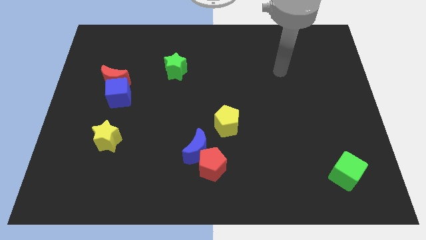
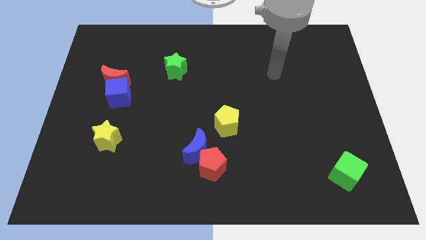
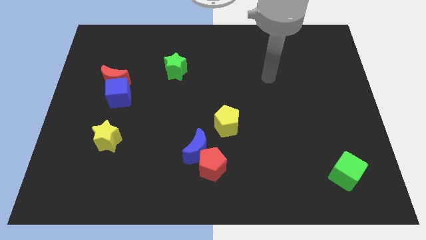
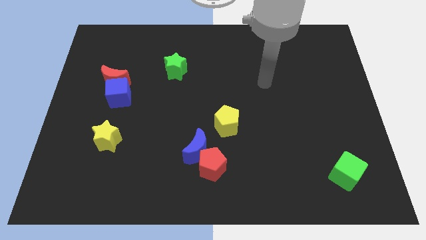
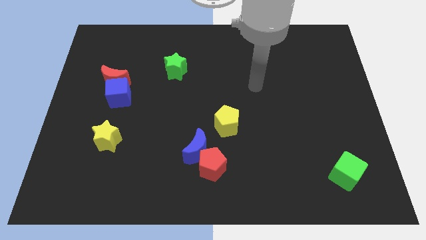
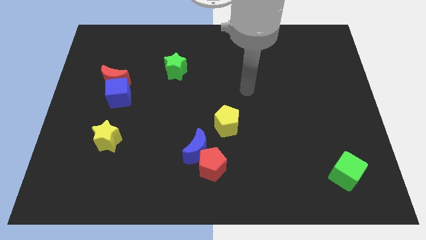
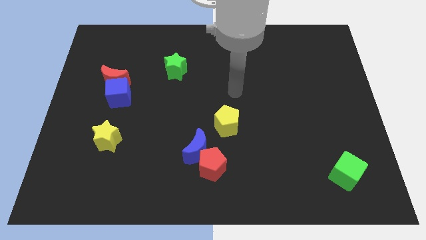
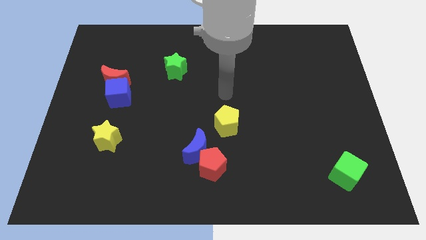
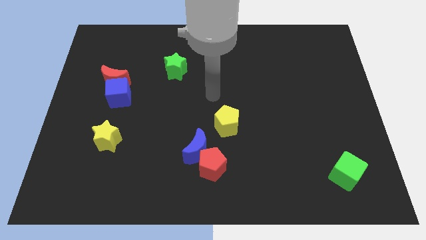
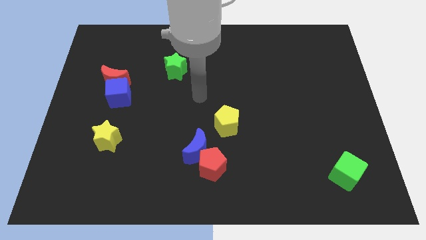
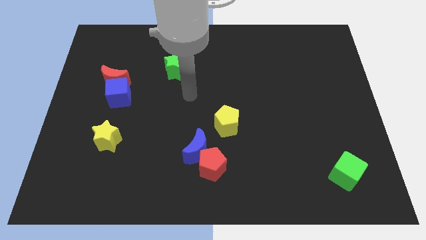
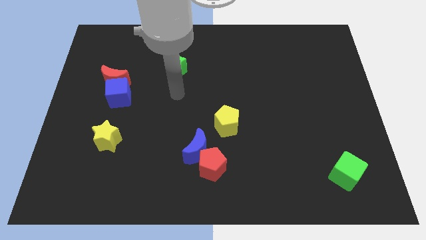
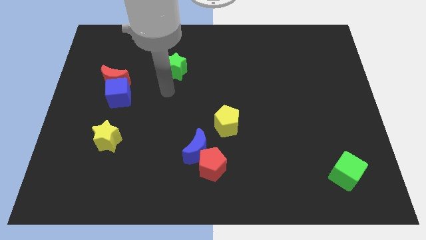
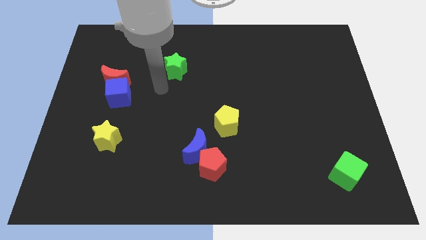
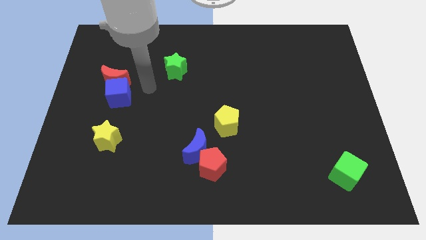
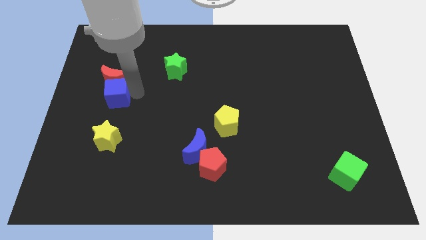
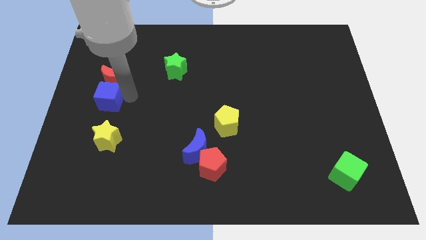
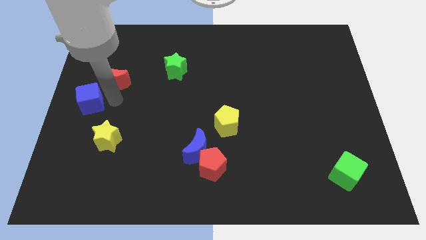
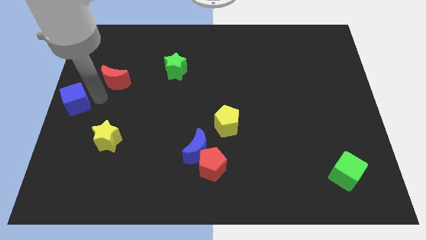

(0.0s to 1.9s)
separate the red moon from the blue cube

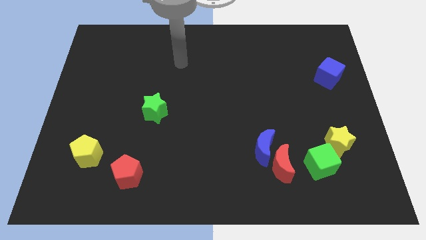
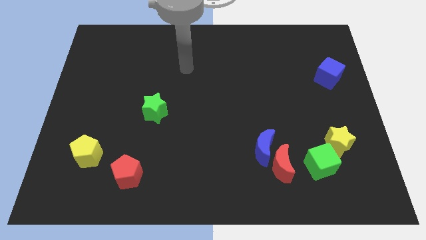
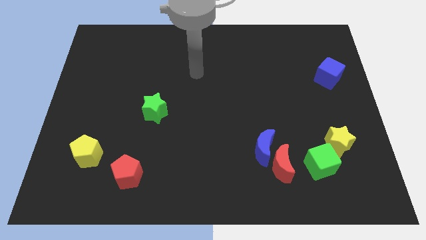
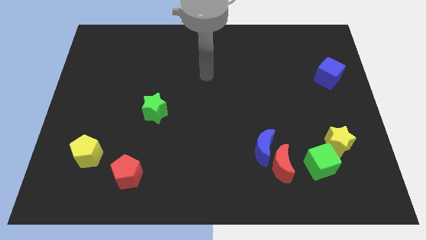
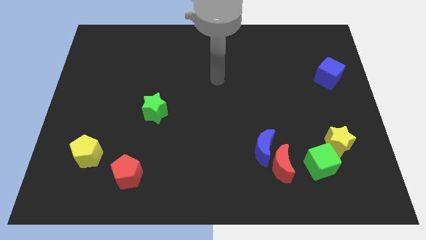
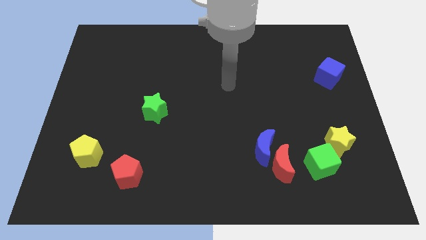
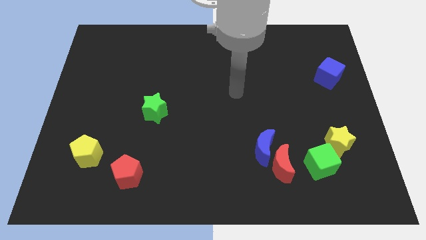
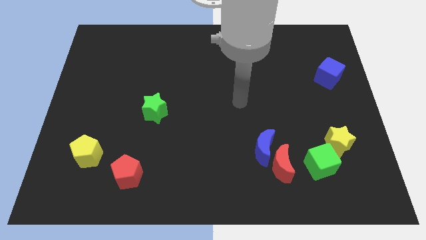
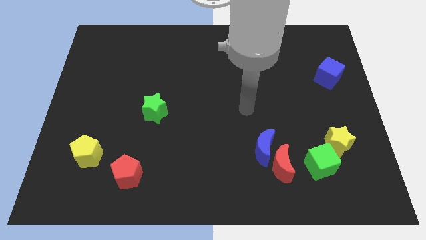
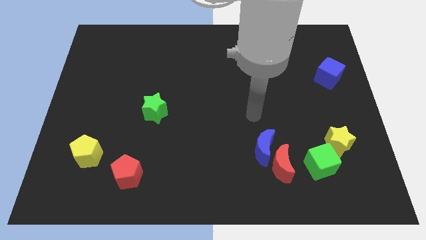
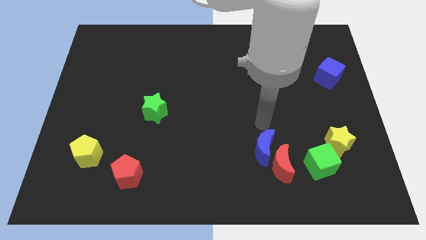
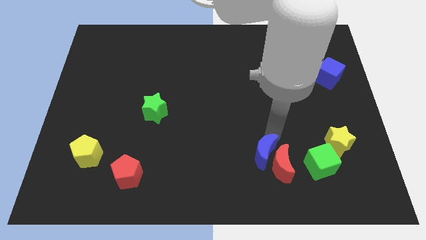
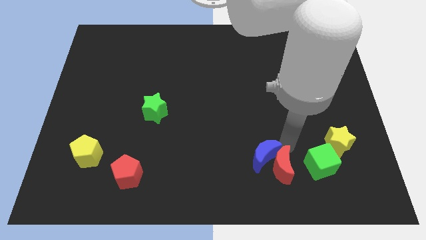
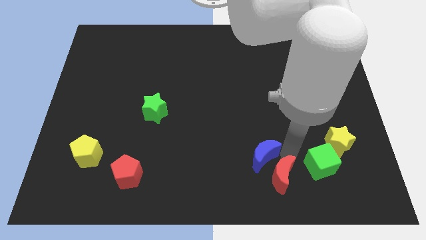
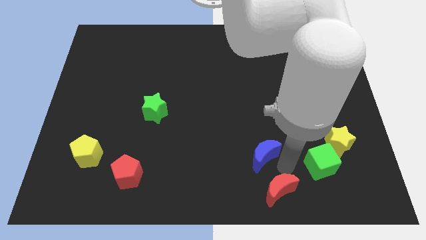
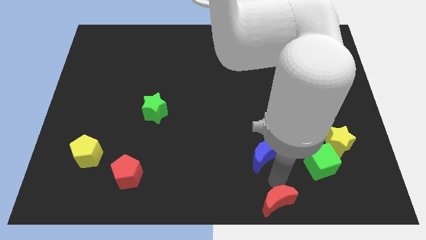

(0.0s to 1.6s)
move the blue moon away from the red moon

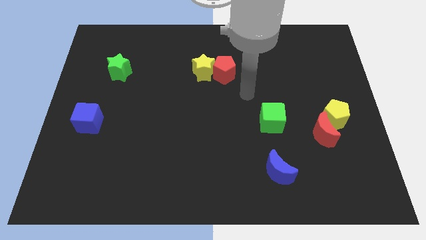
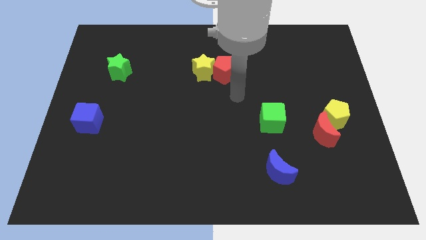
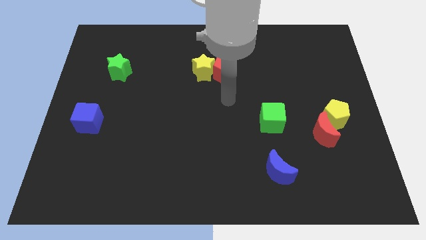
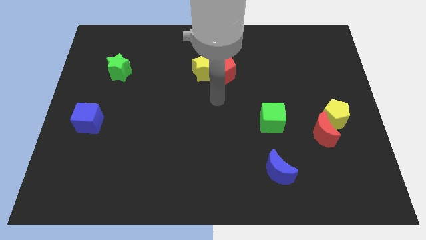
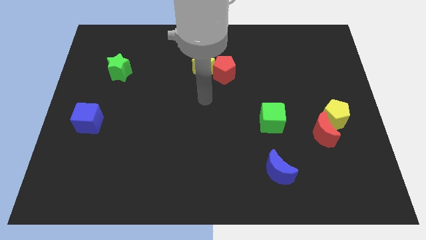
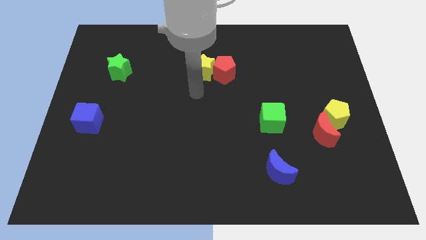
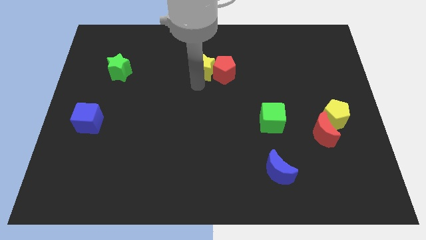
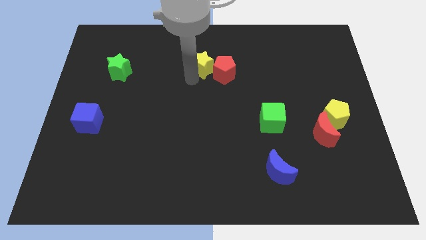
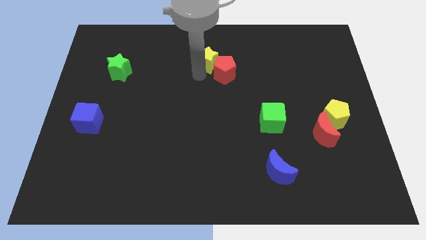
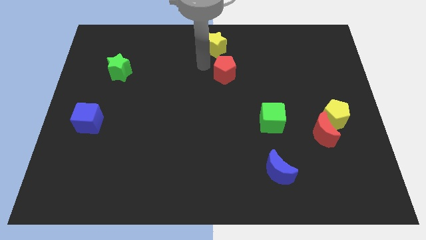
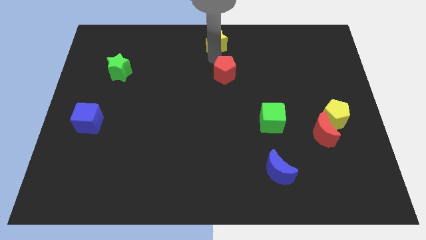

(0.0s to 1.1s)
move the red pentagon away from the yellow star

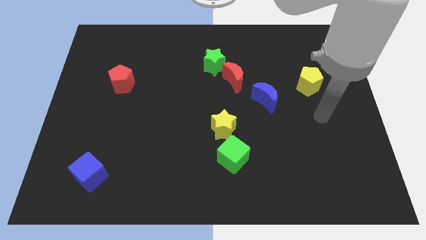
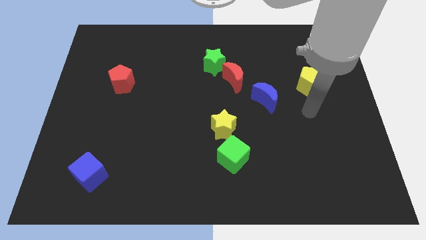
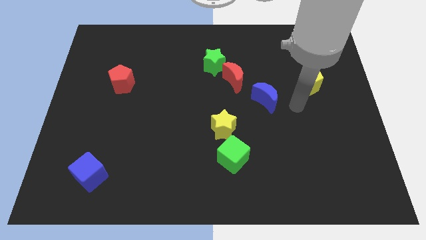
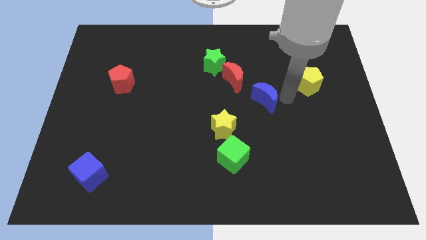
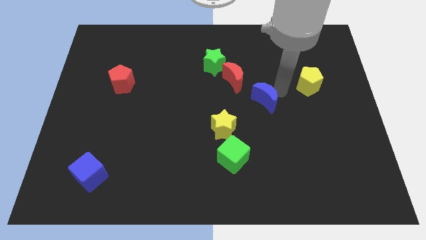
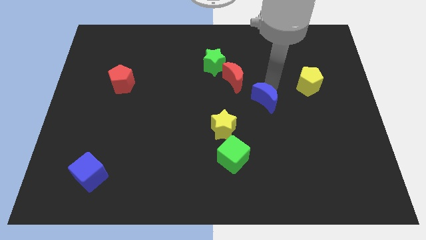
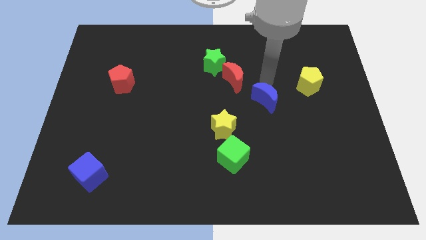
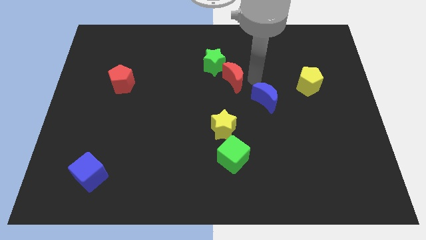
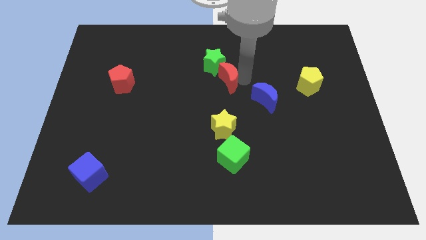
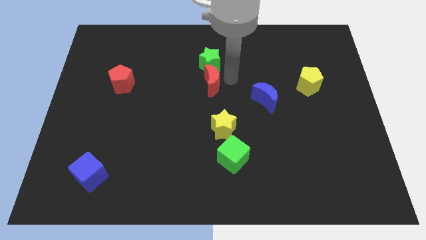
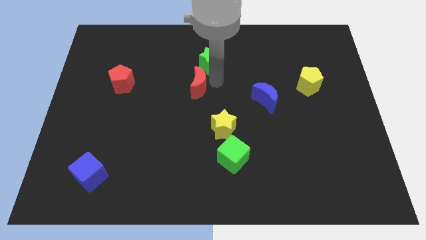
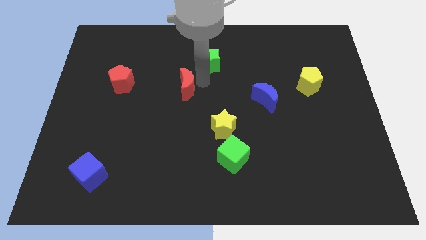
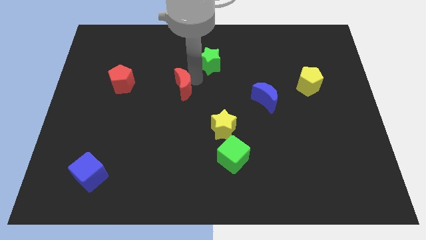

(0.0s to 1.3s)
pull the green star apart from the red moon

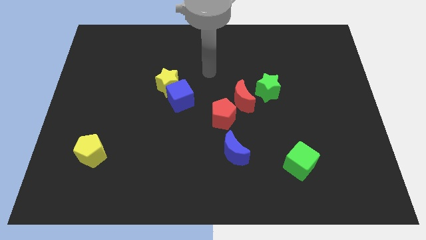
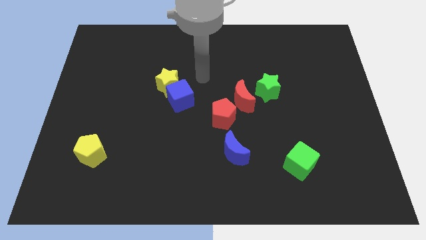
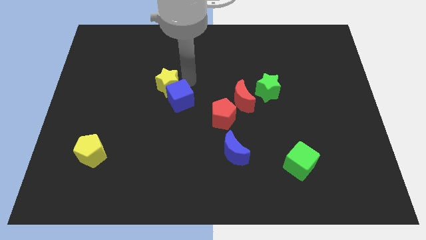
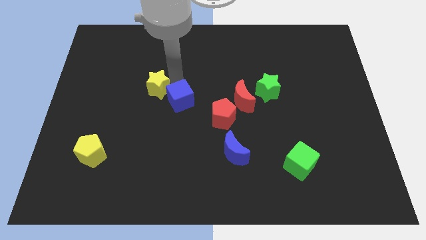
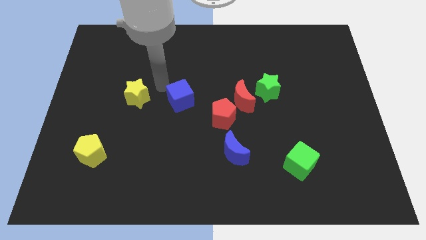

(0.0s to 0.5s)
separate the blue cube from the yellow star

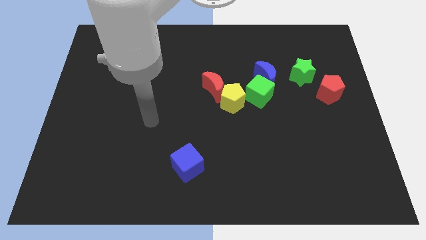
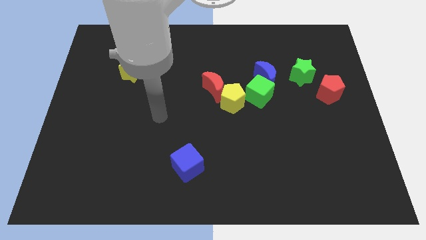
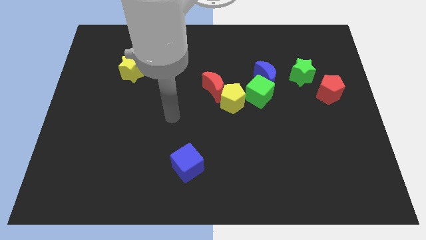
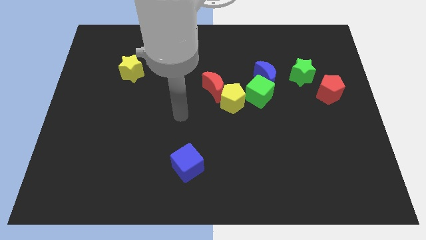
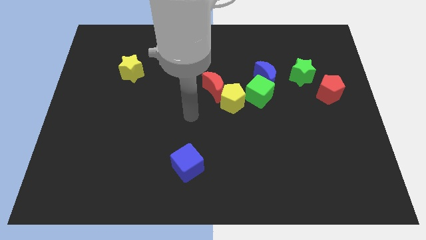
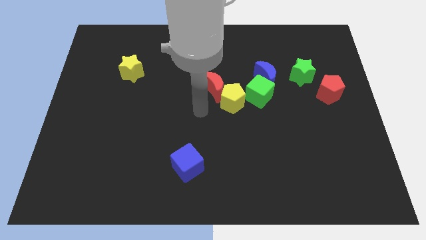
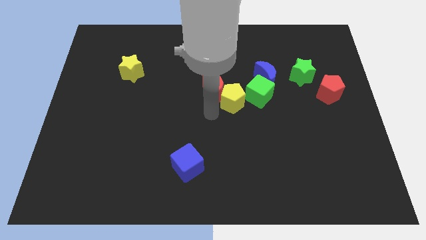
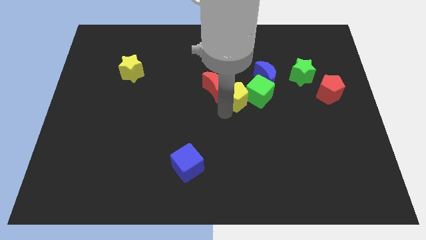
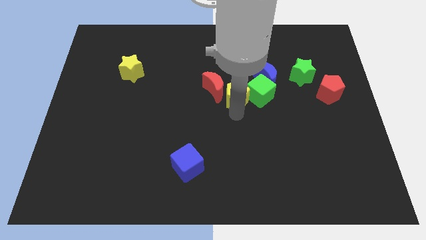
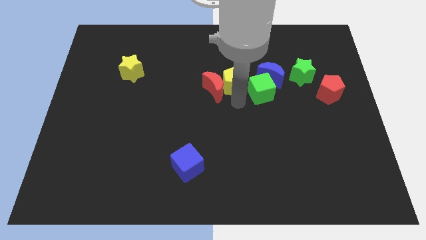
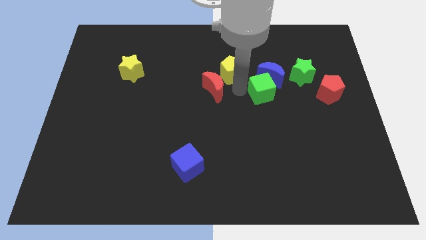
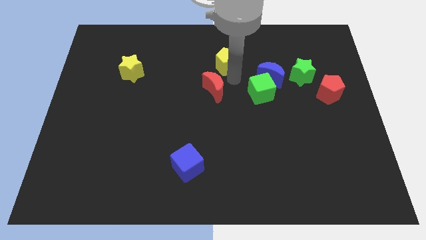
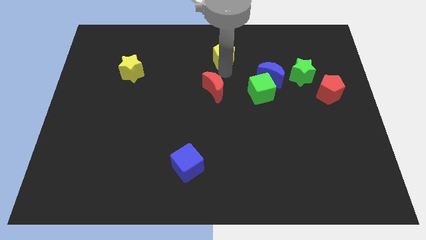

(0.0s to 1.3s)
move the red moon away from the yellow pentagon

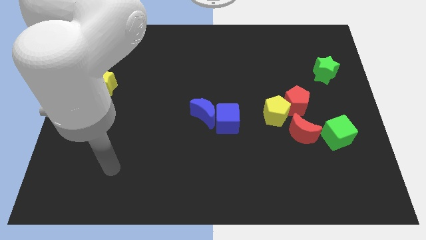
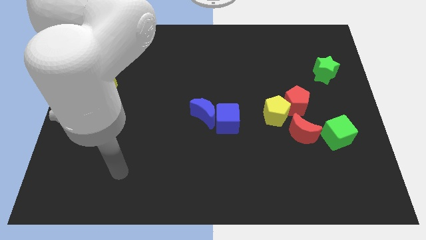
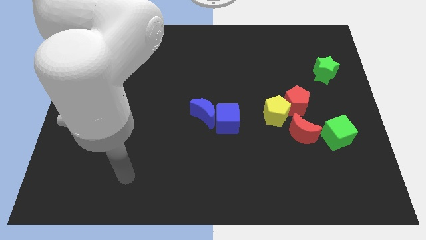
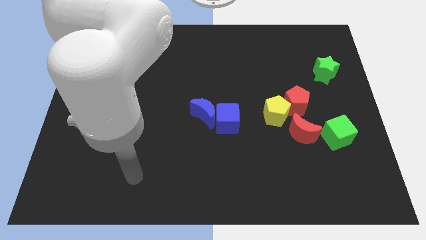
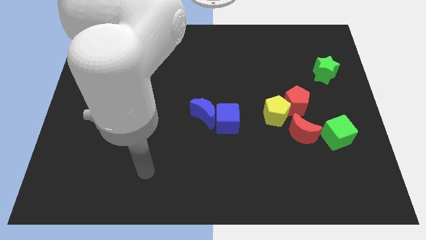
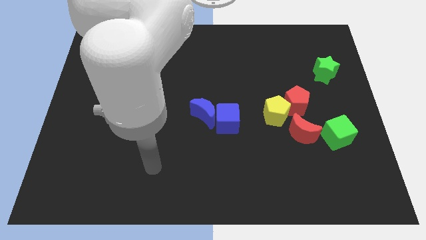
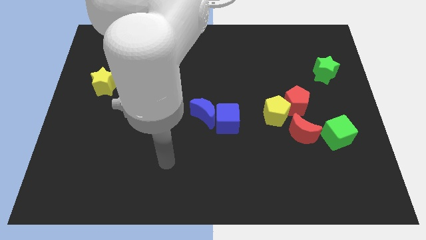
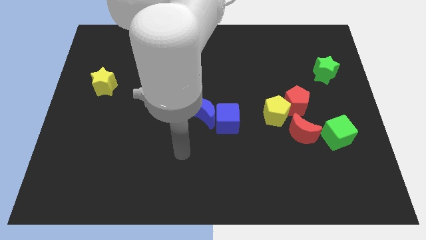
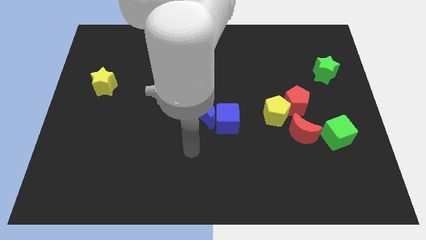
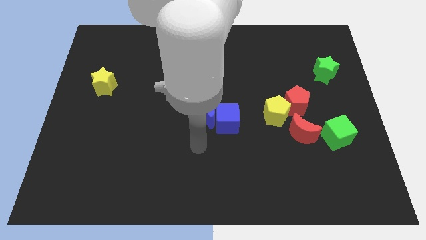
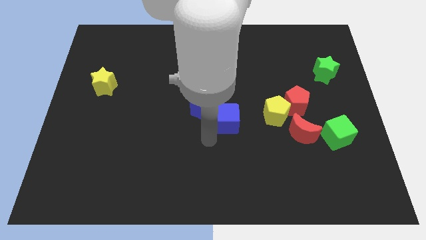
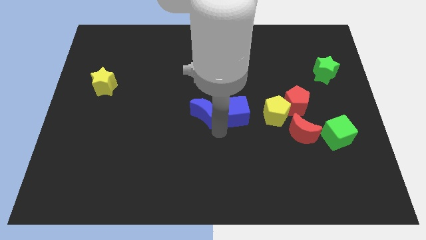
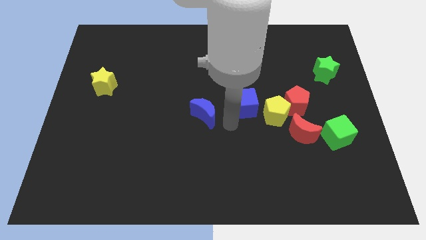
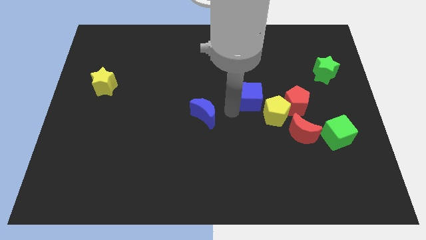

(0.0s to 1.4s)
pull the blue moon apart from the blue cube

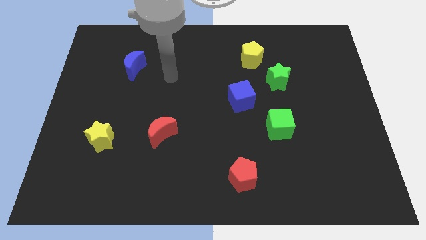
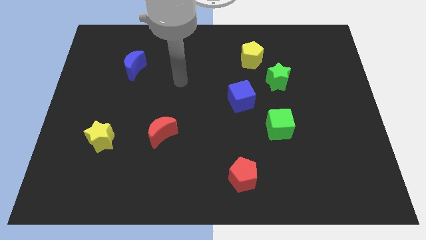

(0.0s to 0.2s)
move the green star away from the yellow pentagon
